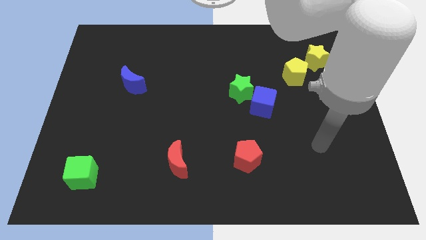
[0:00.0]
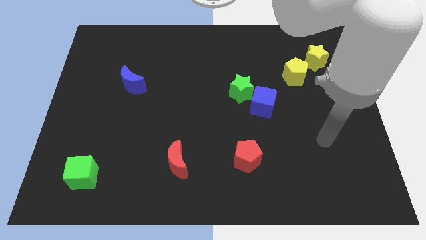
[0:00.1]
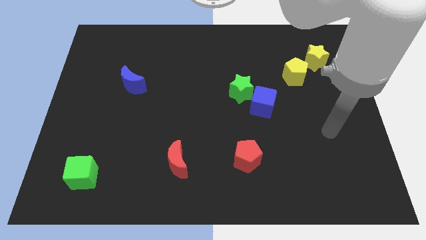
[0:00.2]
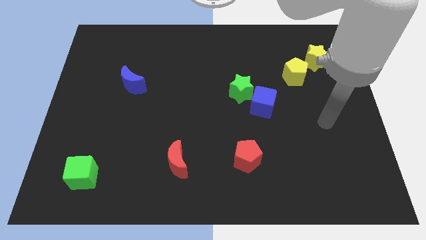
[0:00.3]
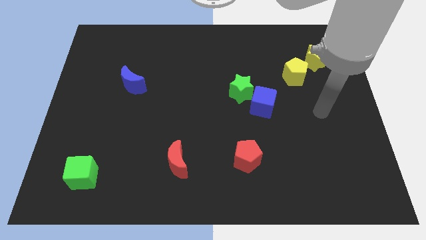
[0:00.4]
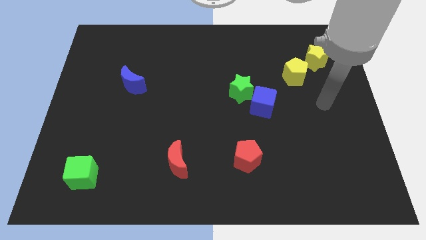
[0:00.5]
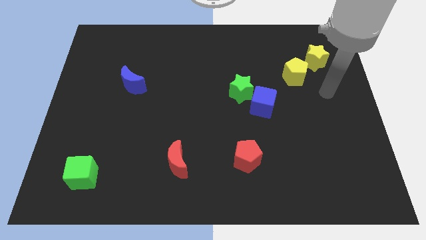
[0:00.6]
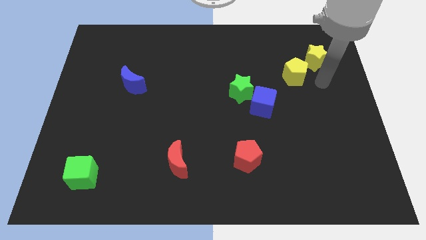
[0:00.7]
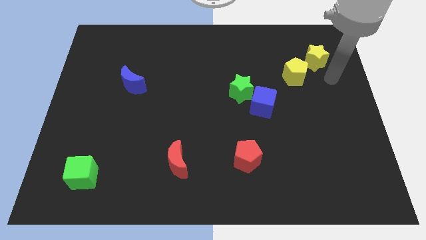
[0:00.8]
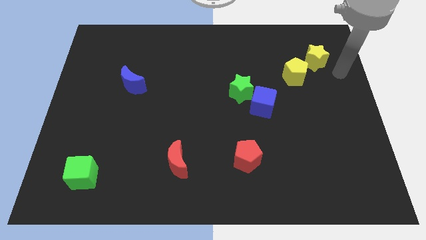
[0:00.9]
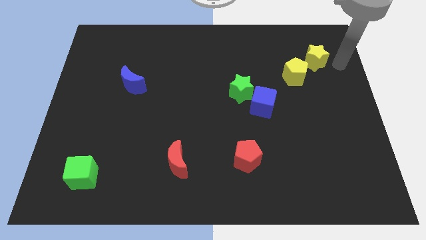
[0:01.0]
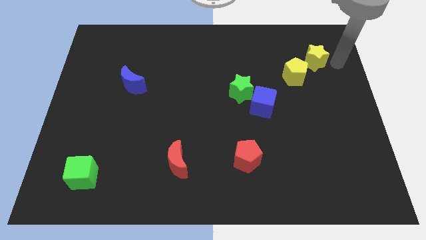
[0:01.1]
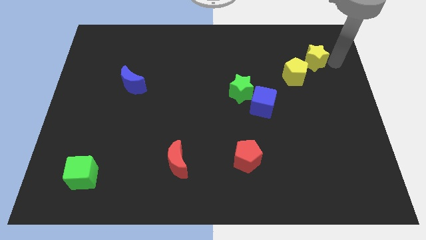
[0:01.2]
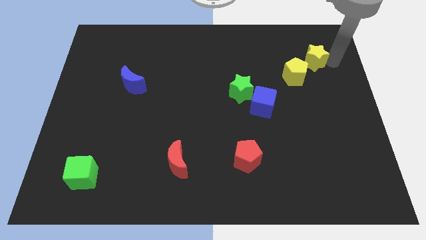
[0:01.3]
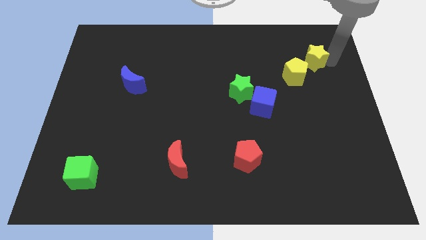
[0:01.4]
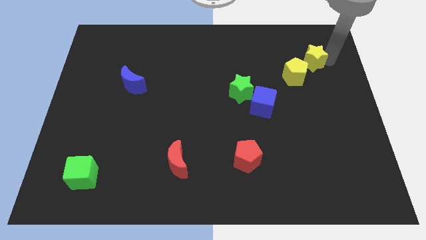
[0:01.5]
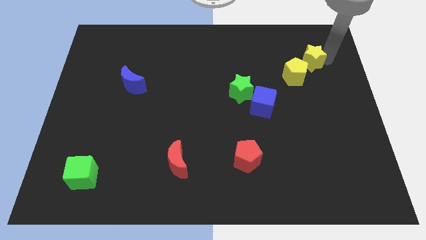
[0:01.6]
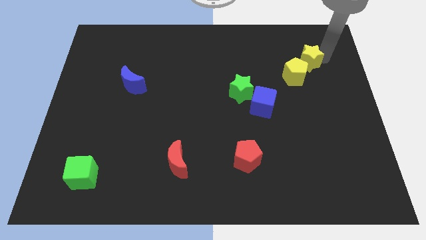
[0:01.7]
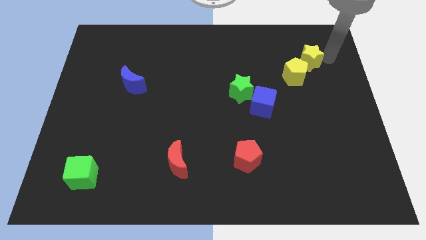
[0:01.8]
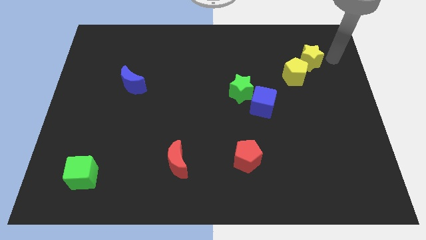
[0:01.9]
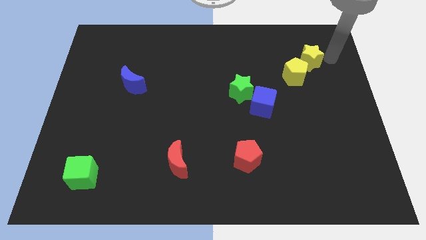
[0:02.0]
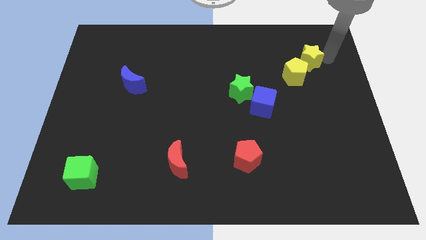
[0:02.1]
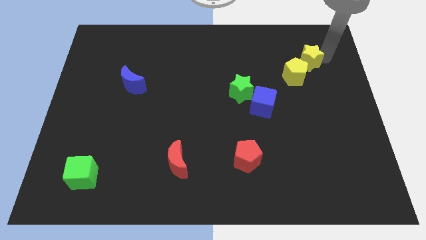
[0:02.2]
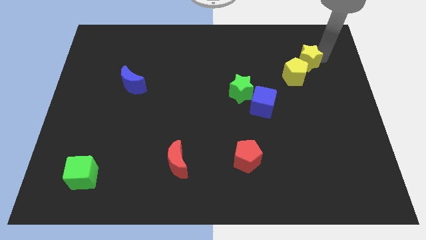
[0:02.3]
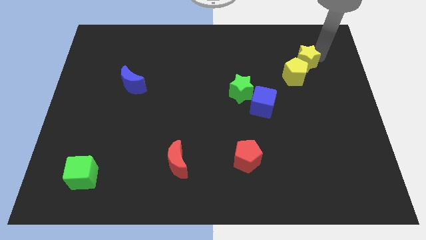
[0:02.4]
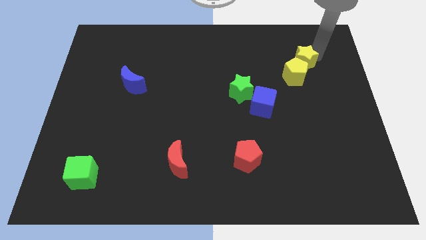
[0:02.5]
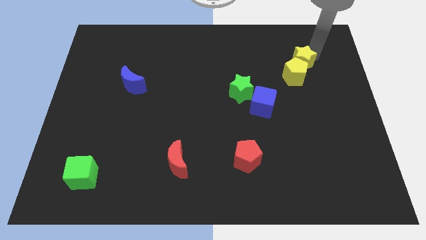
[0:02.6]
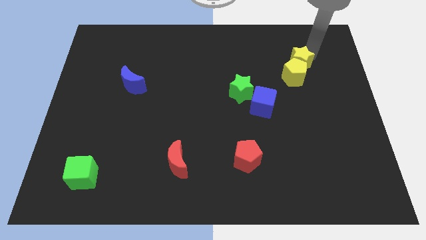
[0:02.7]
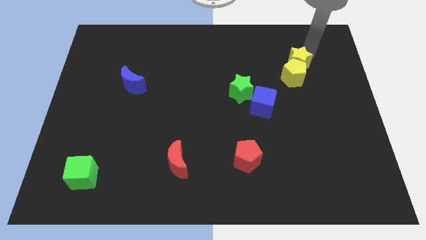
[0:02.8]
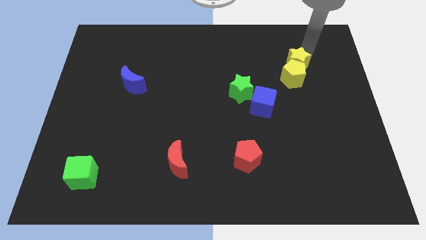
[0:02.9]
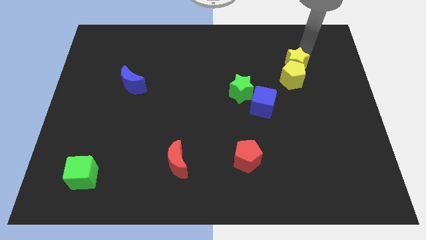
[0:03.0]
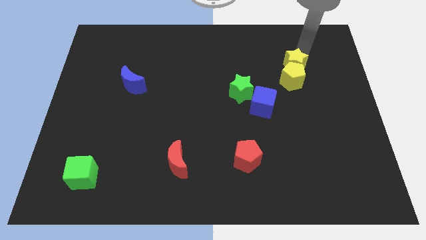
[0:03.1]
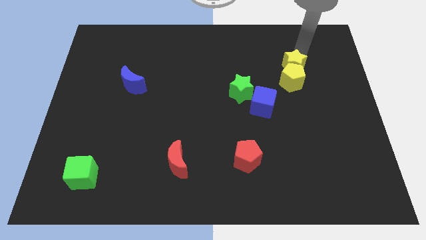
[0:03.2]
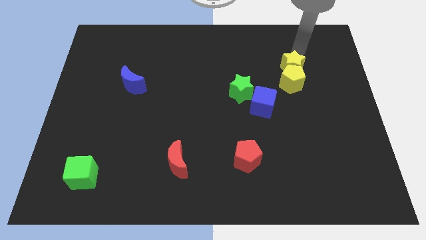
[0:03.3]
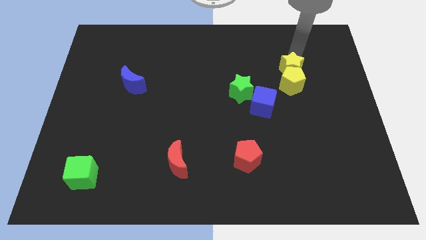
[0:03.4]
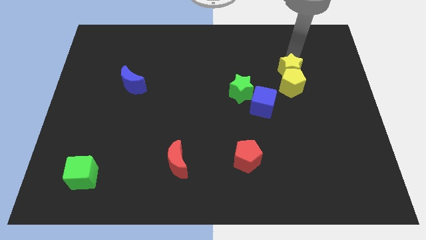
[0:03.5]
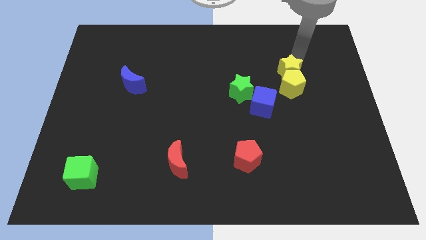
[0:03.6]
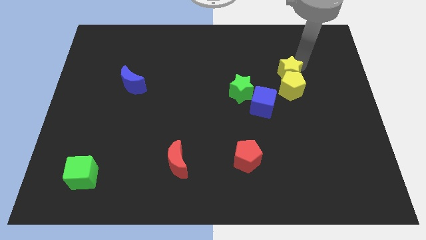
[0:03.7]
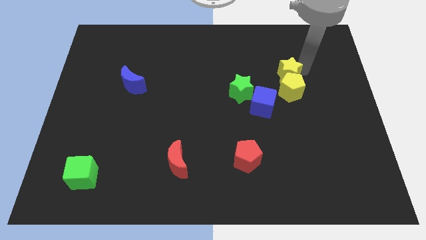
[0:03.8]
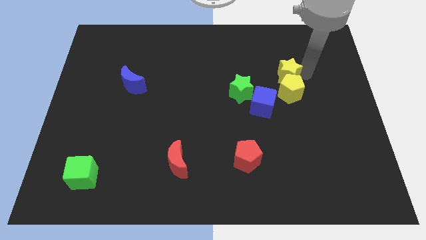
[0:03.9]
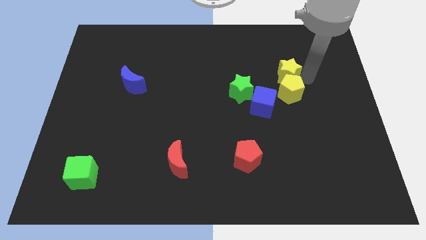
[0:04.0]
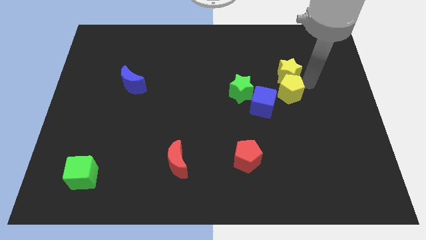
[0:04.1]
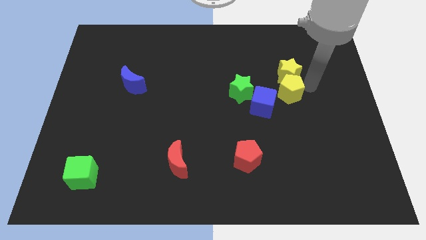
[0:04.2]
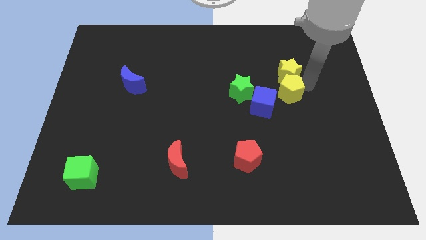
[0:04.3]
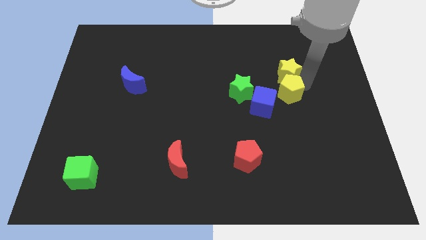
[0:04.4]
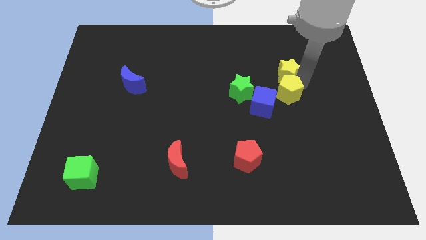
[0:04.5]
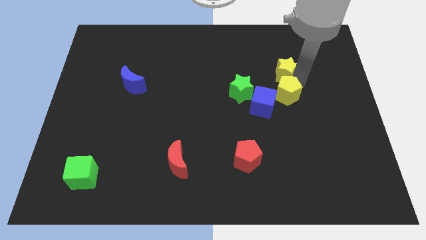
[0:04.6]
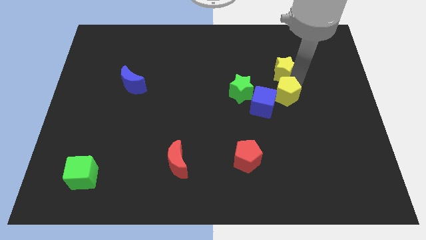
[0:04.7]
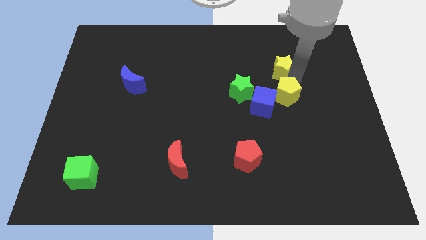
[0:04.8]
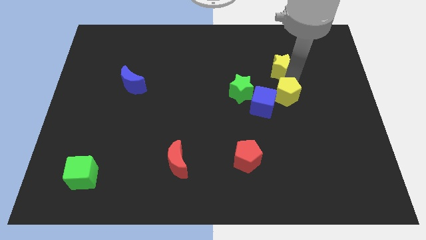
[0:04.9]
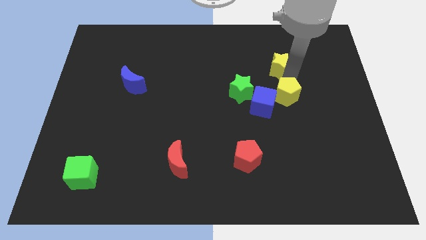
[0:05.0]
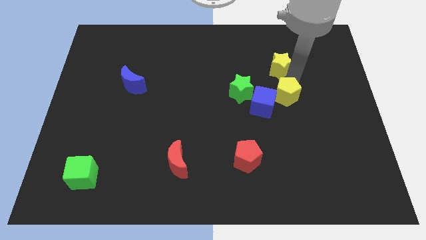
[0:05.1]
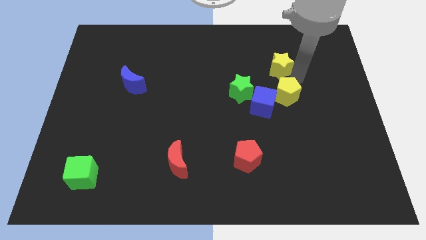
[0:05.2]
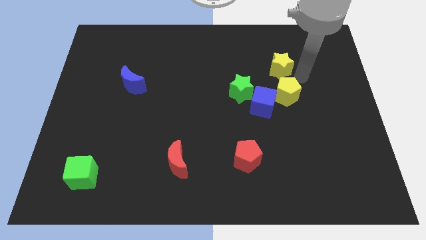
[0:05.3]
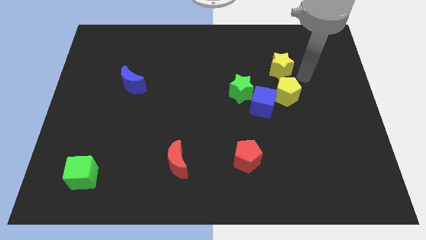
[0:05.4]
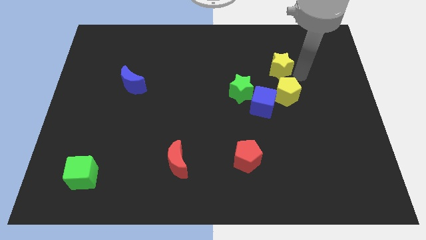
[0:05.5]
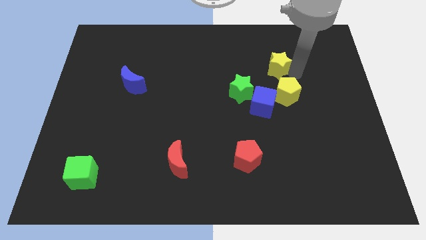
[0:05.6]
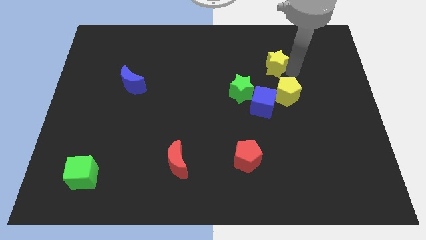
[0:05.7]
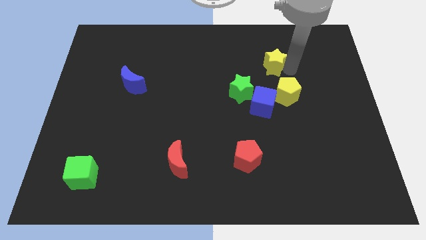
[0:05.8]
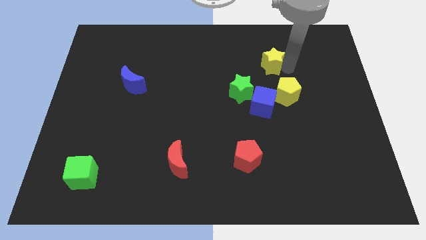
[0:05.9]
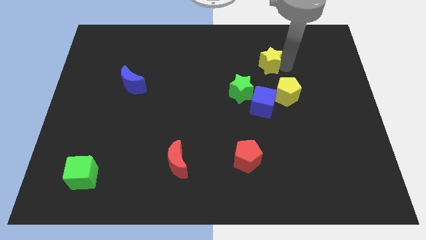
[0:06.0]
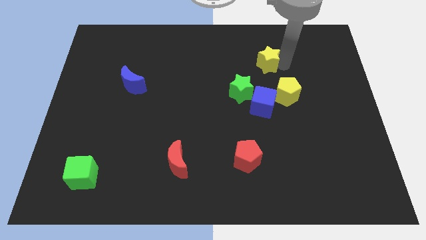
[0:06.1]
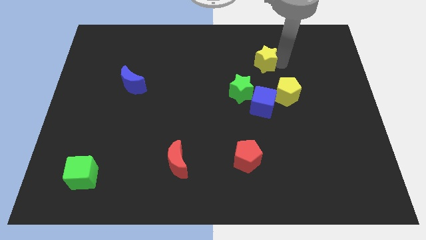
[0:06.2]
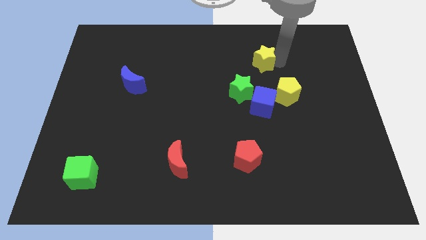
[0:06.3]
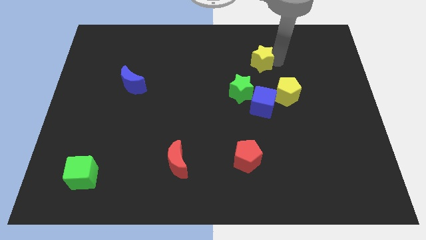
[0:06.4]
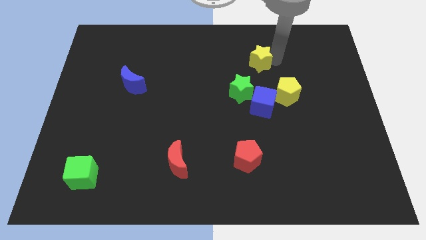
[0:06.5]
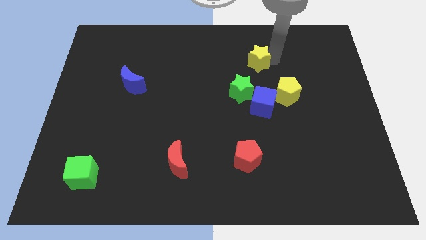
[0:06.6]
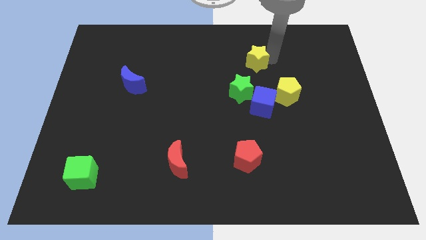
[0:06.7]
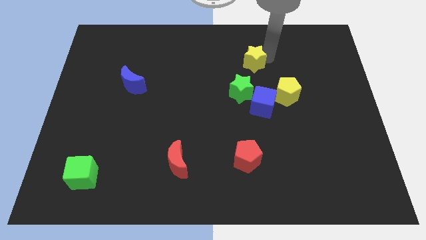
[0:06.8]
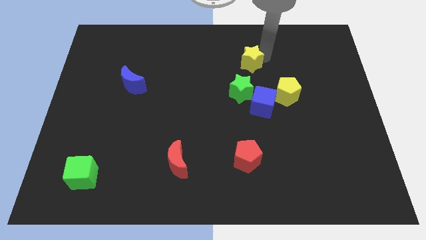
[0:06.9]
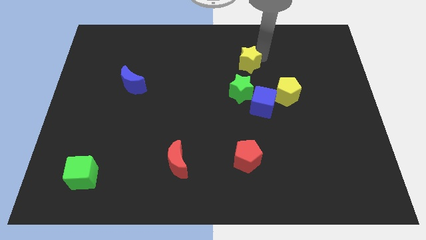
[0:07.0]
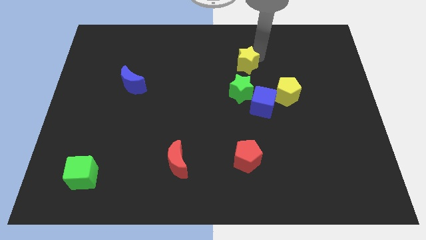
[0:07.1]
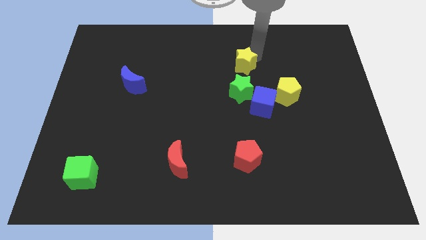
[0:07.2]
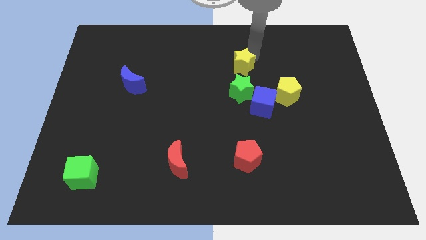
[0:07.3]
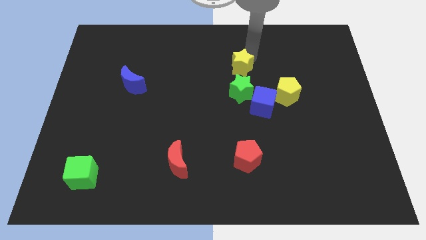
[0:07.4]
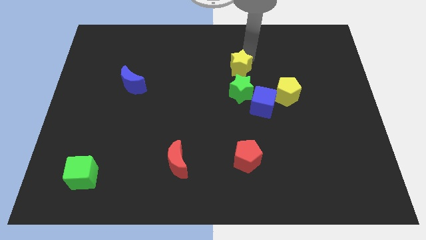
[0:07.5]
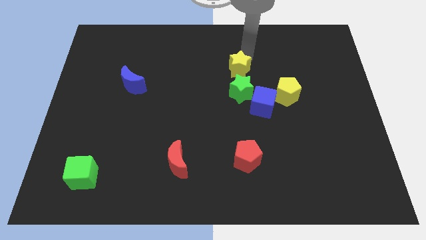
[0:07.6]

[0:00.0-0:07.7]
push the yellow star to the middle of the board
